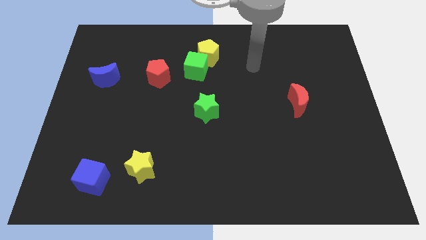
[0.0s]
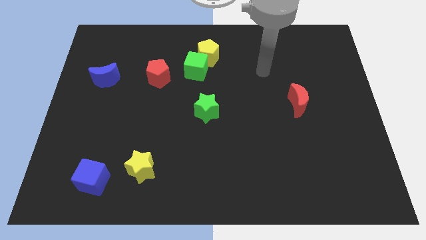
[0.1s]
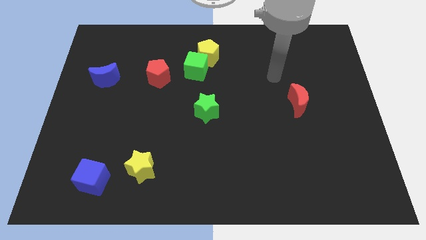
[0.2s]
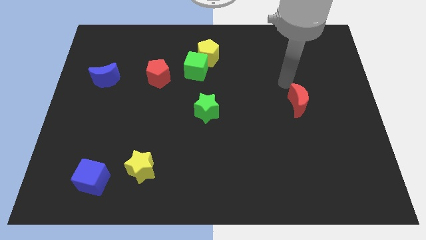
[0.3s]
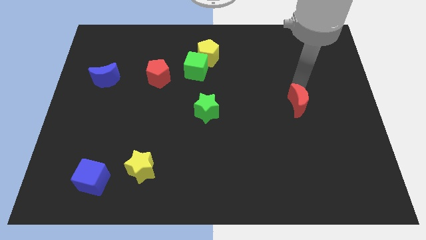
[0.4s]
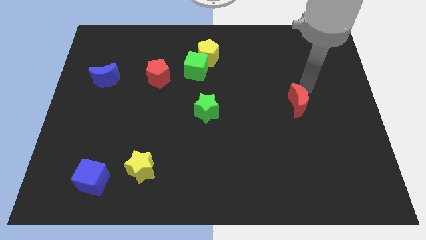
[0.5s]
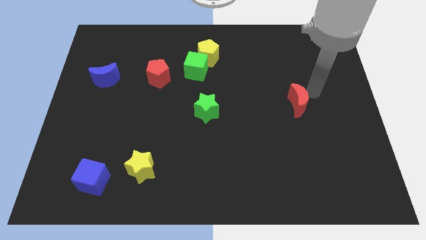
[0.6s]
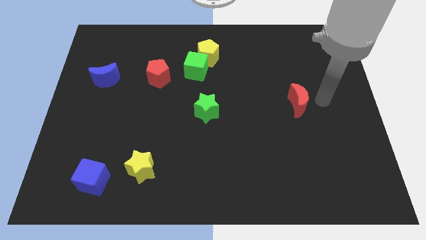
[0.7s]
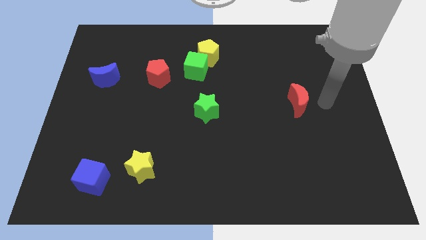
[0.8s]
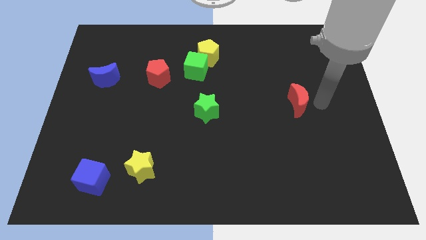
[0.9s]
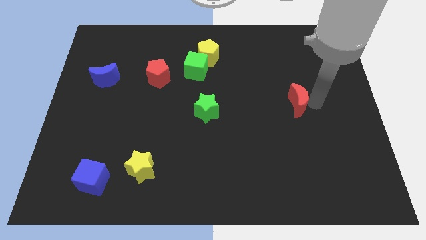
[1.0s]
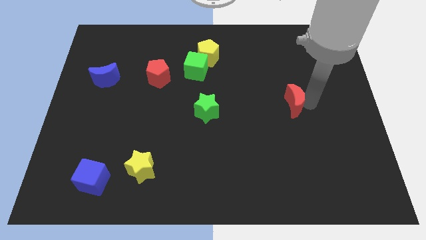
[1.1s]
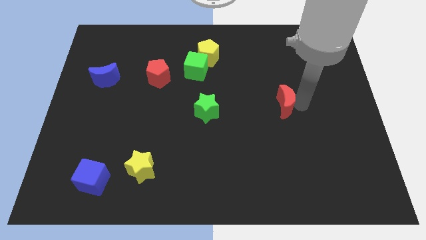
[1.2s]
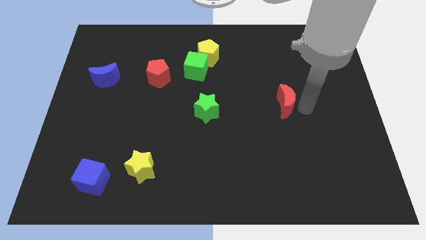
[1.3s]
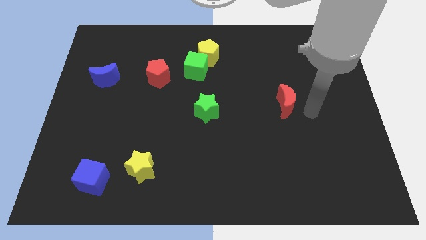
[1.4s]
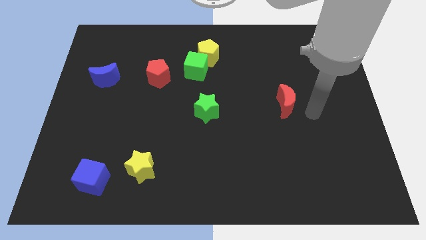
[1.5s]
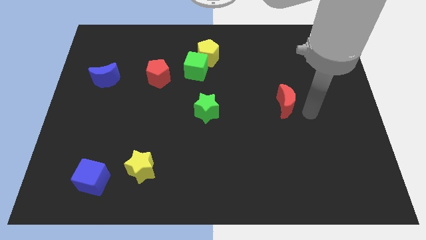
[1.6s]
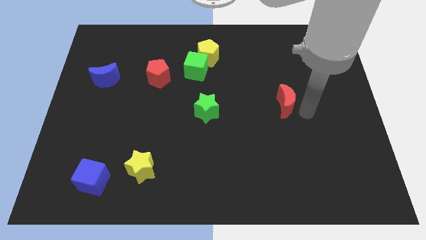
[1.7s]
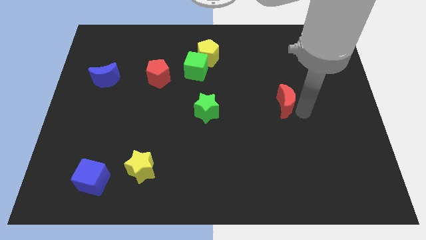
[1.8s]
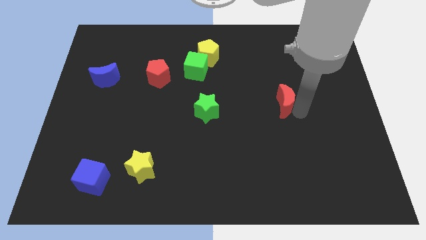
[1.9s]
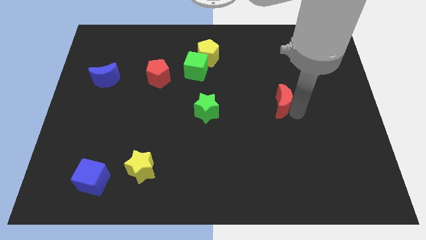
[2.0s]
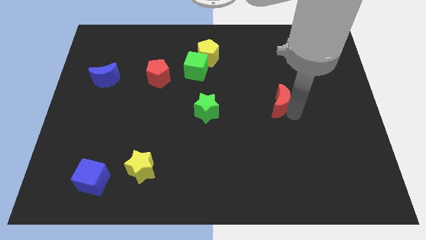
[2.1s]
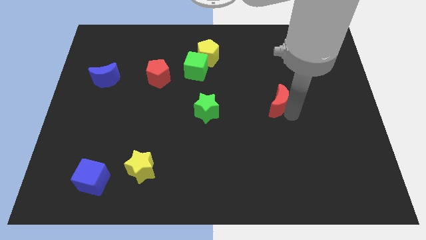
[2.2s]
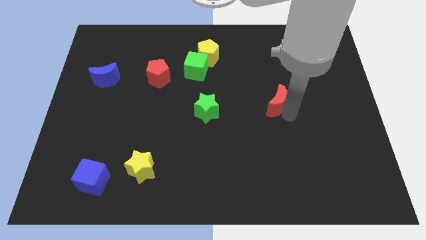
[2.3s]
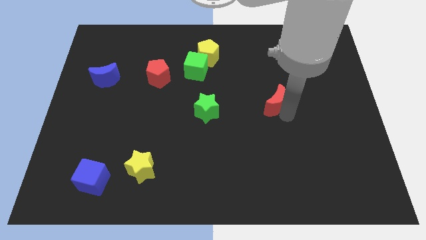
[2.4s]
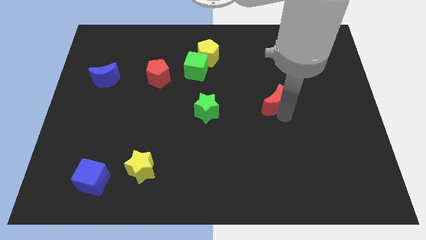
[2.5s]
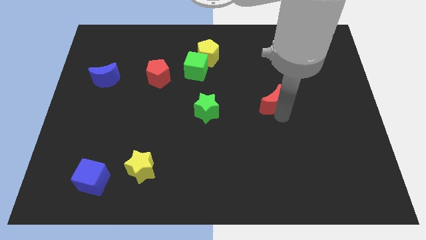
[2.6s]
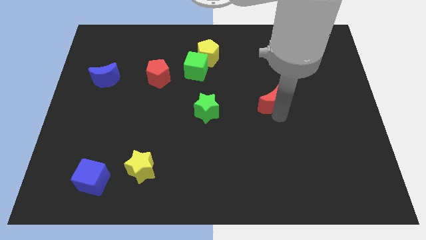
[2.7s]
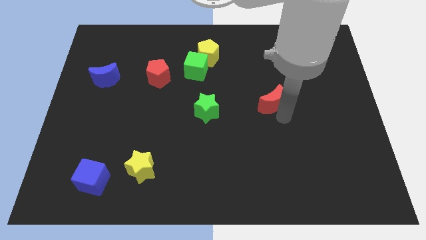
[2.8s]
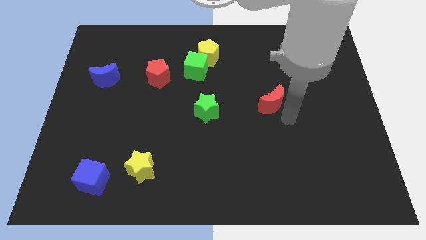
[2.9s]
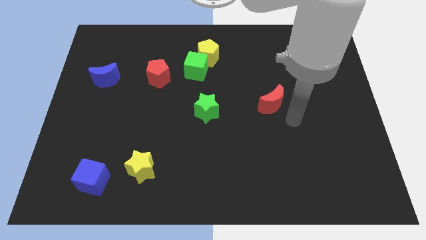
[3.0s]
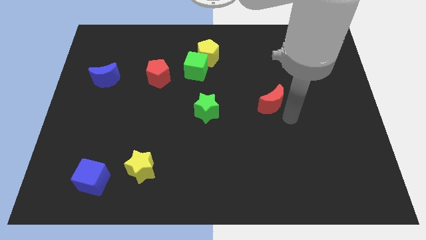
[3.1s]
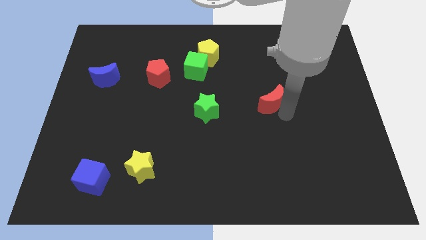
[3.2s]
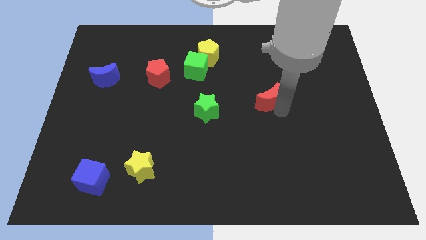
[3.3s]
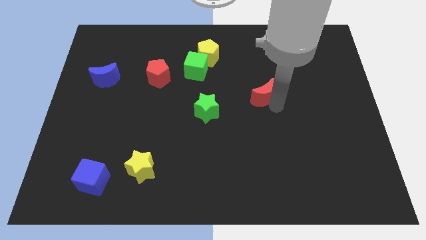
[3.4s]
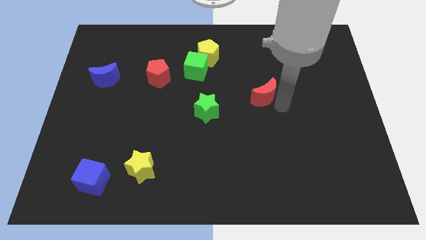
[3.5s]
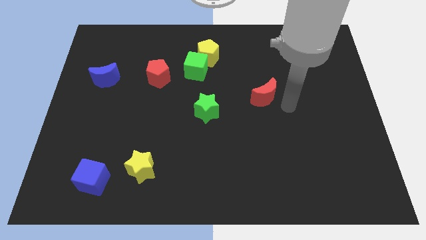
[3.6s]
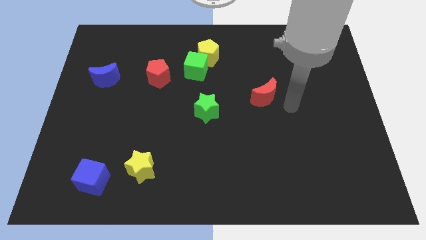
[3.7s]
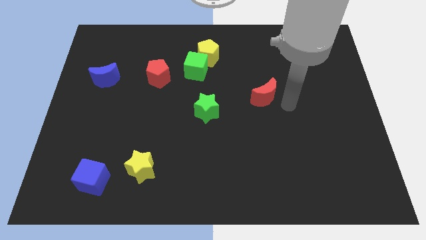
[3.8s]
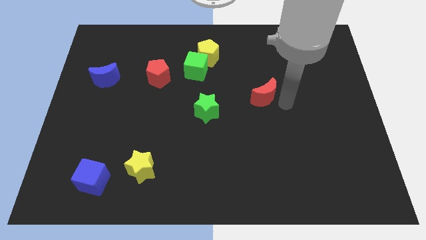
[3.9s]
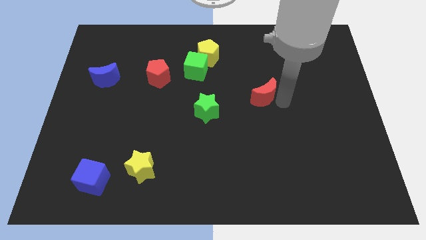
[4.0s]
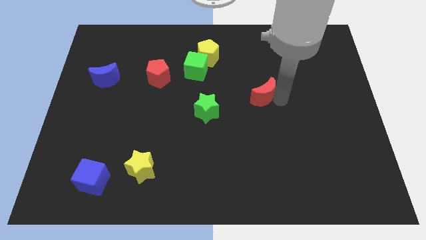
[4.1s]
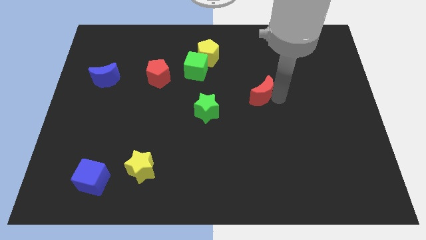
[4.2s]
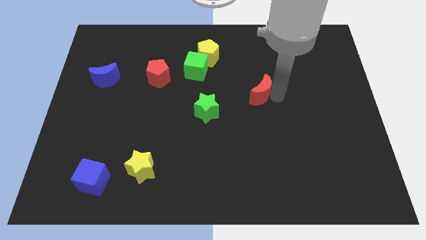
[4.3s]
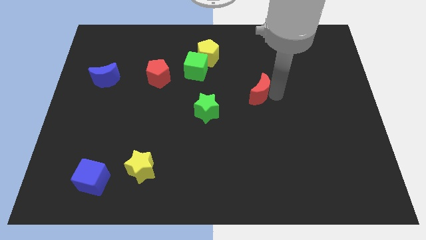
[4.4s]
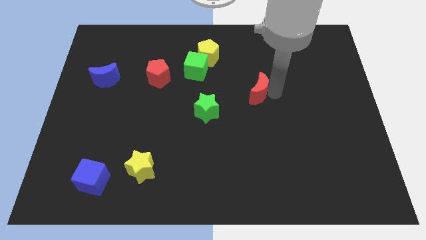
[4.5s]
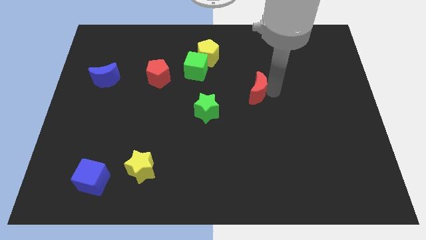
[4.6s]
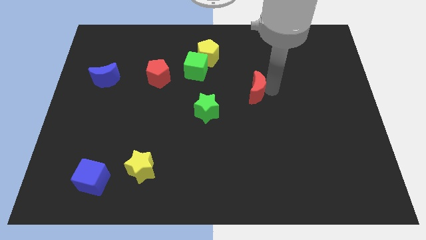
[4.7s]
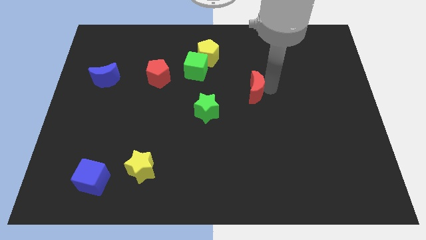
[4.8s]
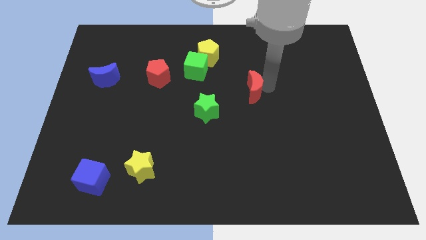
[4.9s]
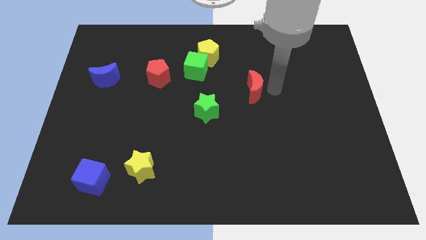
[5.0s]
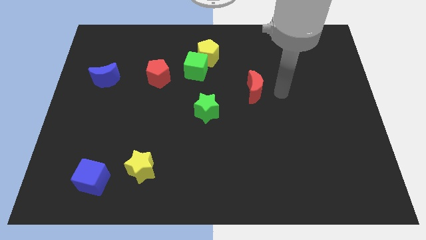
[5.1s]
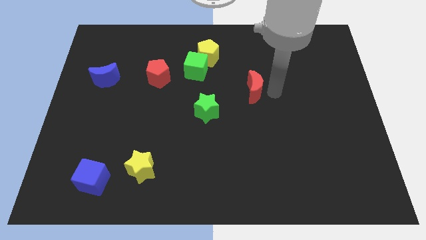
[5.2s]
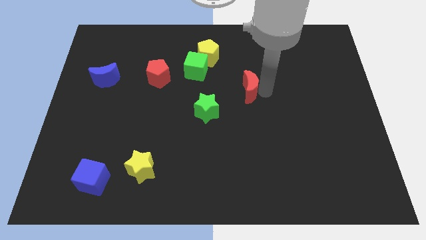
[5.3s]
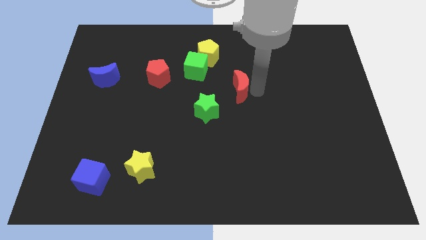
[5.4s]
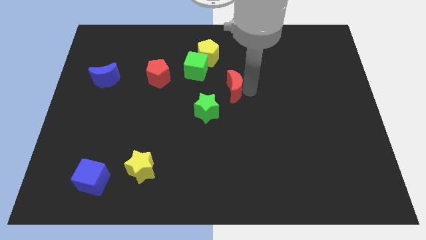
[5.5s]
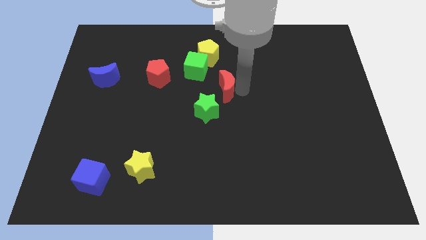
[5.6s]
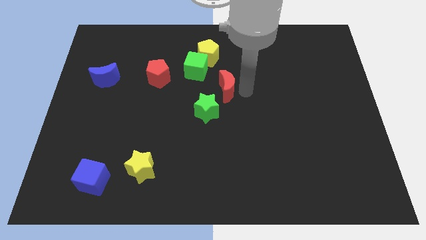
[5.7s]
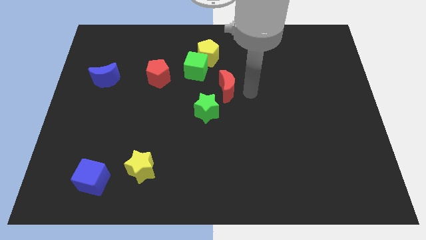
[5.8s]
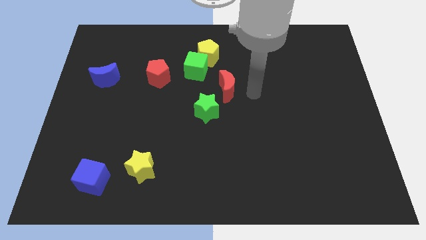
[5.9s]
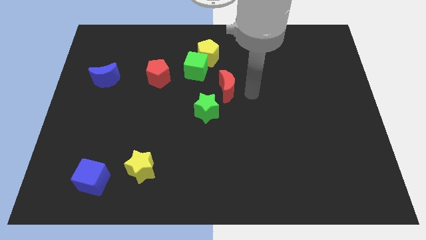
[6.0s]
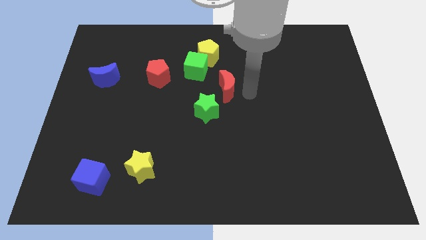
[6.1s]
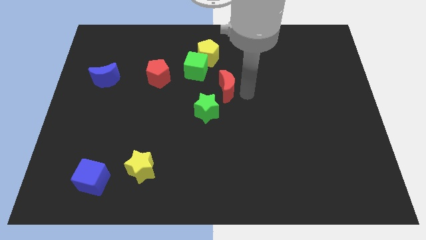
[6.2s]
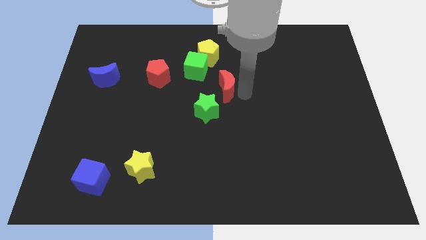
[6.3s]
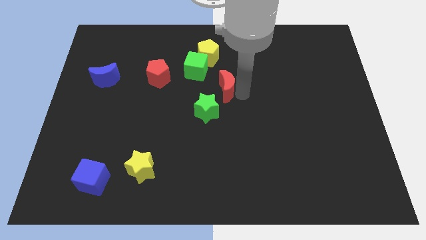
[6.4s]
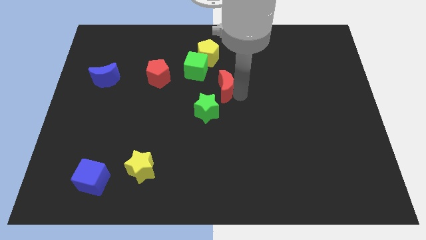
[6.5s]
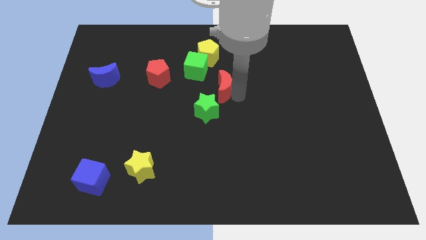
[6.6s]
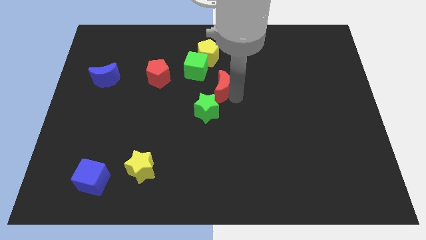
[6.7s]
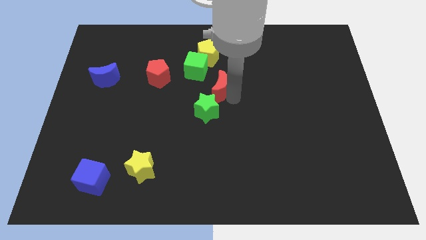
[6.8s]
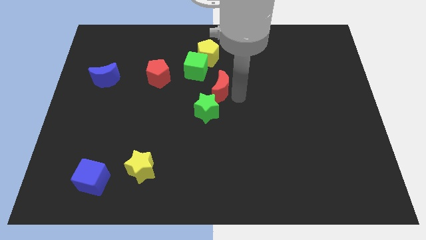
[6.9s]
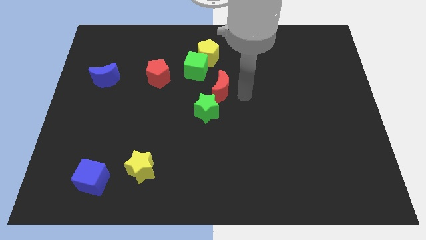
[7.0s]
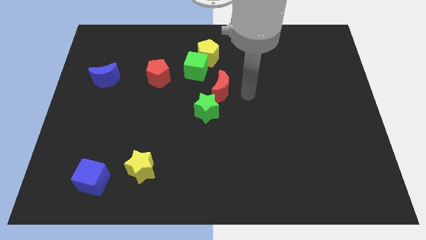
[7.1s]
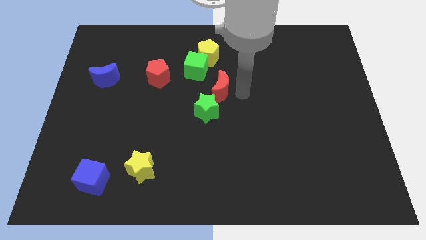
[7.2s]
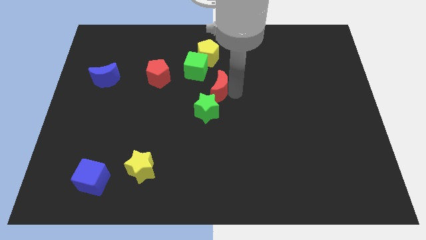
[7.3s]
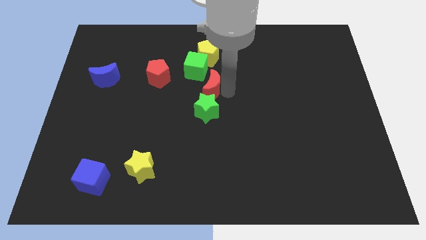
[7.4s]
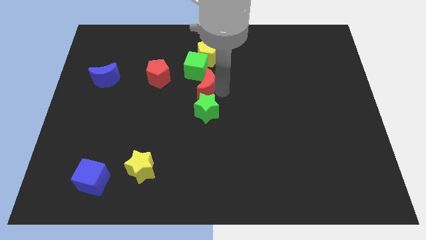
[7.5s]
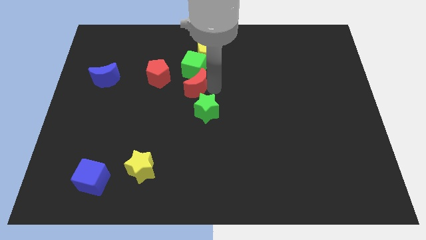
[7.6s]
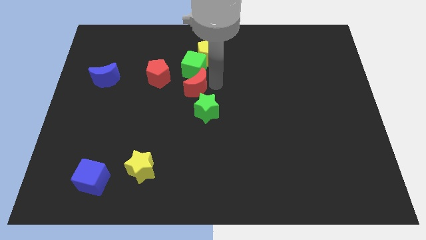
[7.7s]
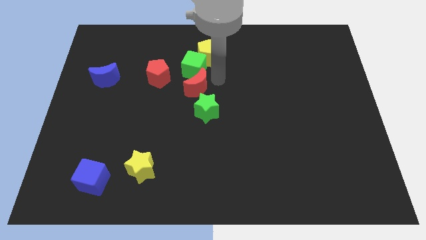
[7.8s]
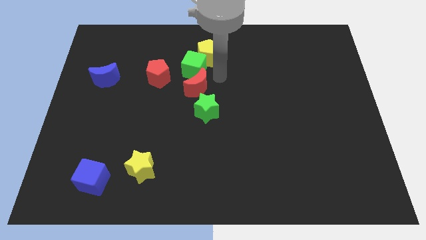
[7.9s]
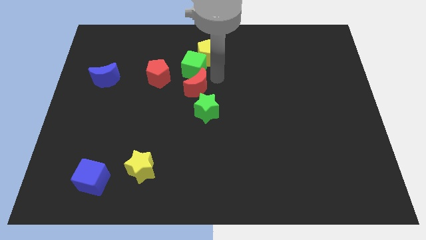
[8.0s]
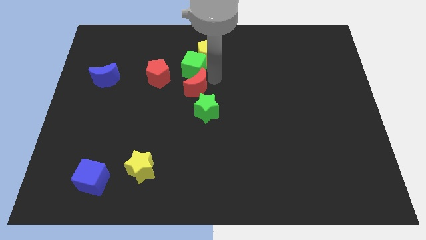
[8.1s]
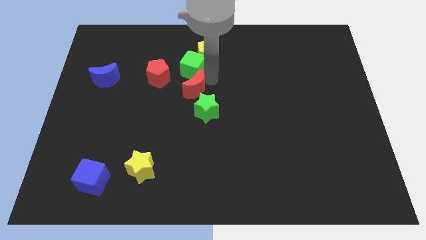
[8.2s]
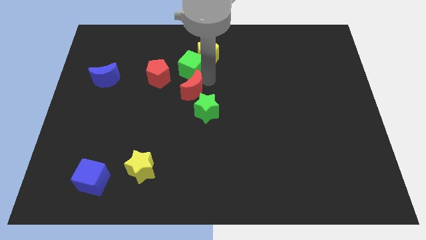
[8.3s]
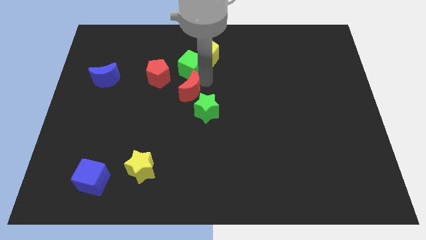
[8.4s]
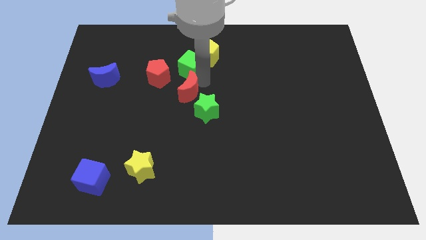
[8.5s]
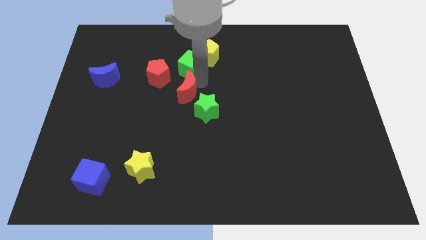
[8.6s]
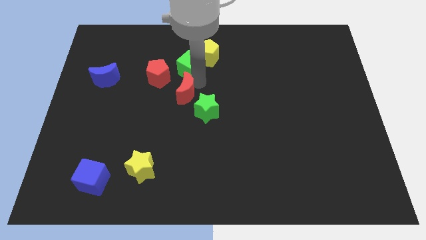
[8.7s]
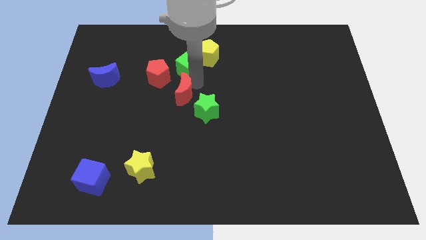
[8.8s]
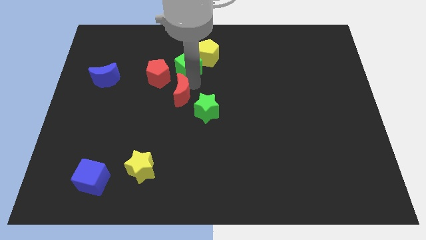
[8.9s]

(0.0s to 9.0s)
move the red moon just left of the green star
